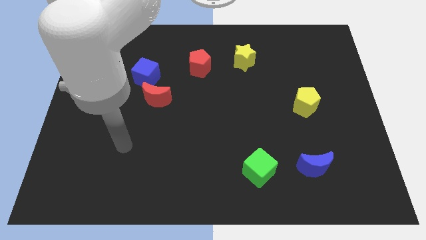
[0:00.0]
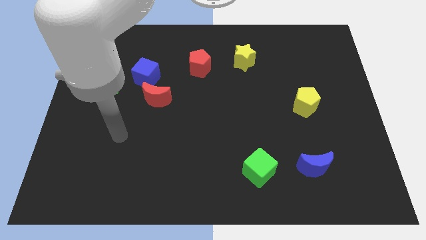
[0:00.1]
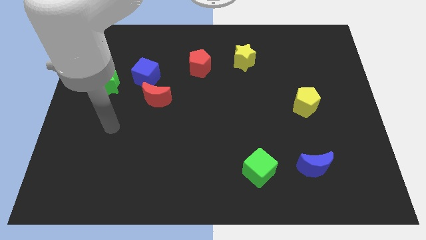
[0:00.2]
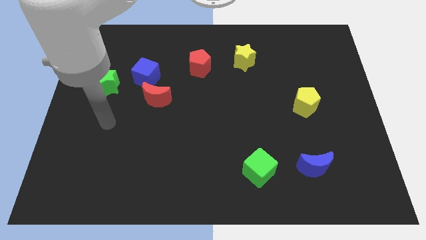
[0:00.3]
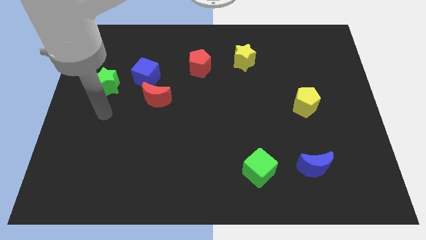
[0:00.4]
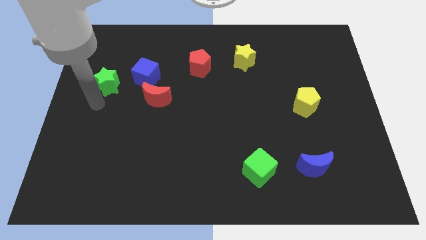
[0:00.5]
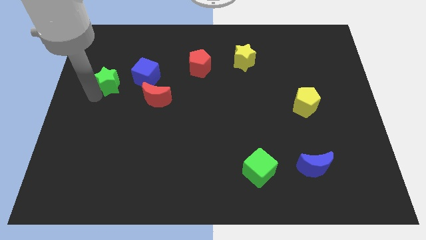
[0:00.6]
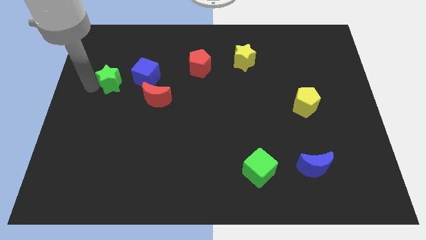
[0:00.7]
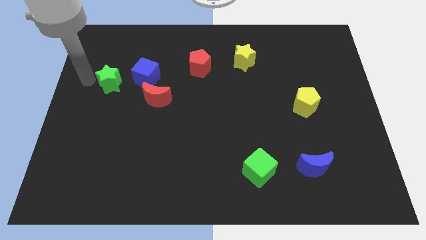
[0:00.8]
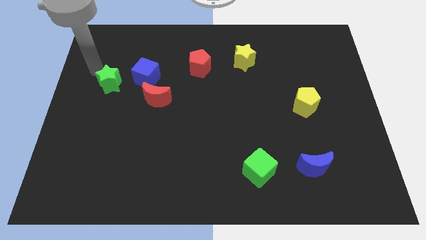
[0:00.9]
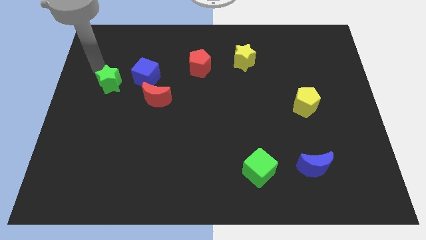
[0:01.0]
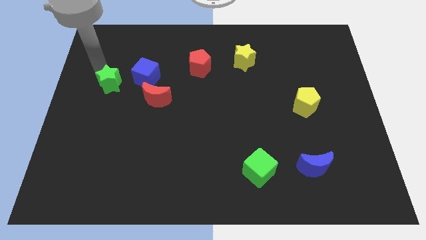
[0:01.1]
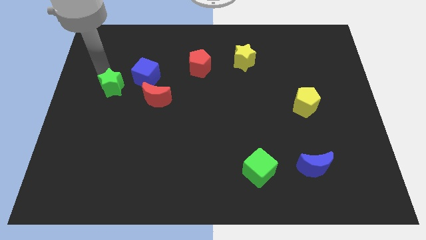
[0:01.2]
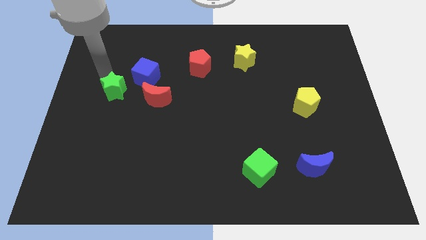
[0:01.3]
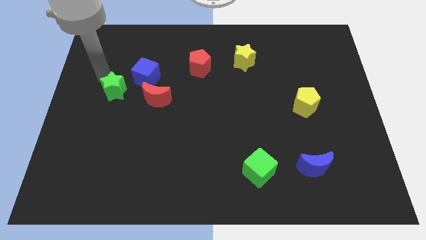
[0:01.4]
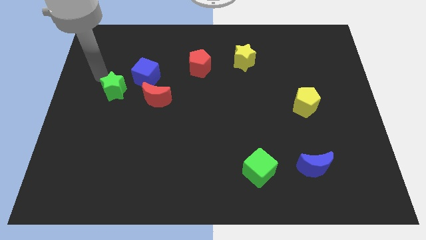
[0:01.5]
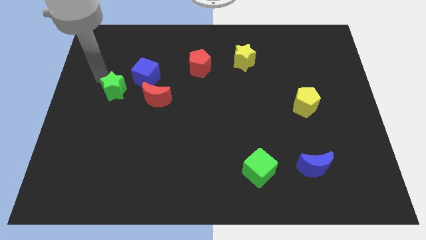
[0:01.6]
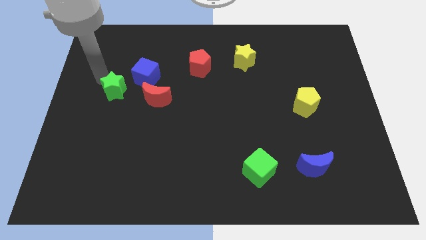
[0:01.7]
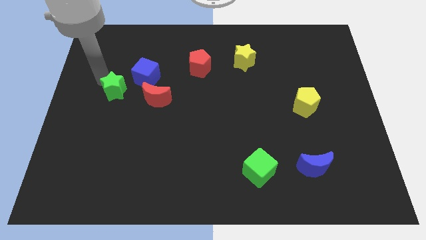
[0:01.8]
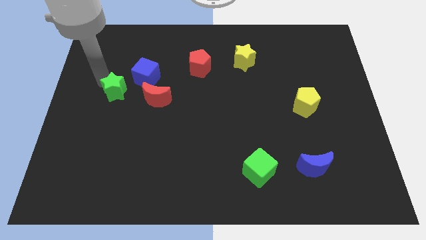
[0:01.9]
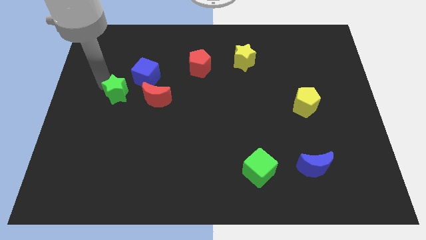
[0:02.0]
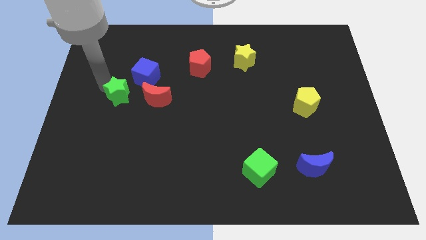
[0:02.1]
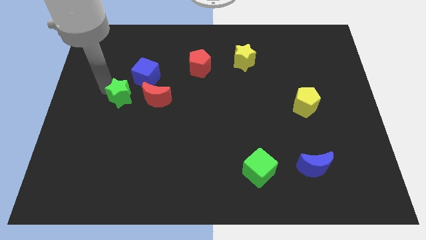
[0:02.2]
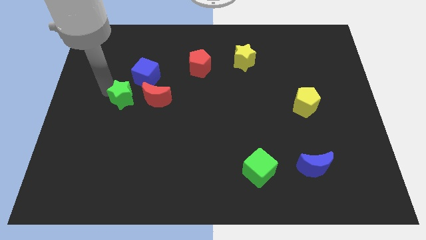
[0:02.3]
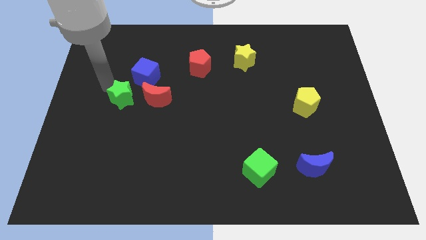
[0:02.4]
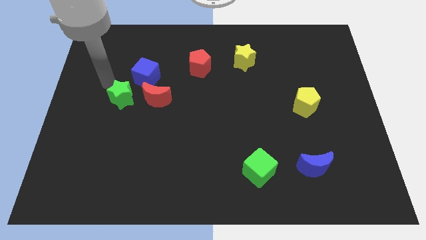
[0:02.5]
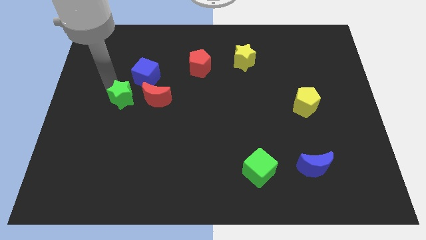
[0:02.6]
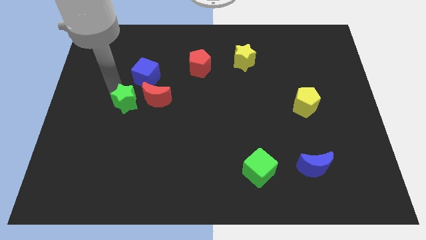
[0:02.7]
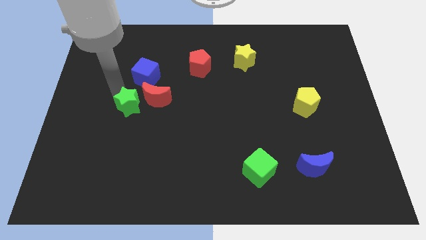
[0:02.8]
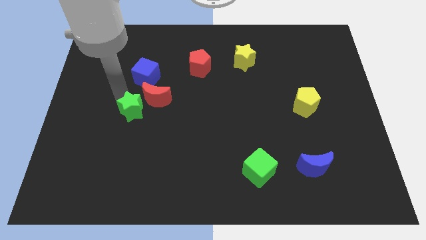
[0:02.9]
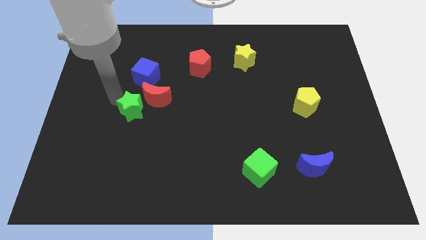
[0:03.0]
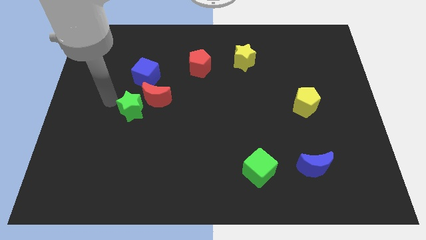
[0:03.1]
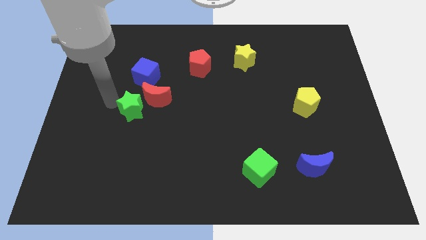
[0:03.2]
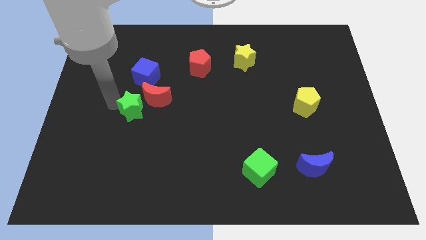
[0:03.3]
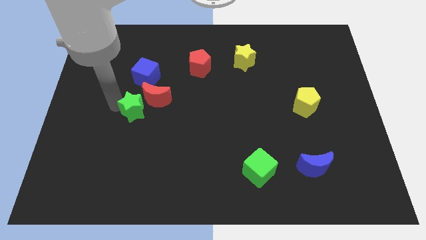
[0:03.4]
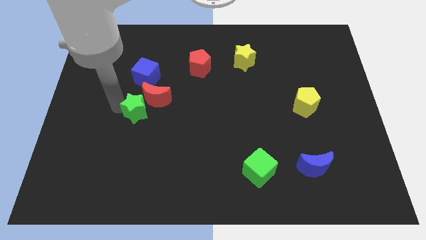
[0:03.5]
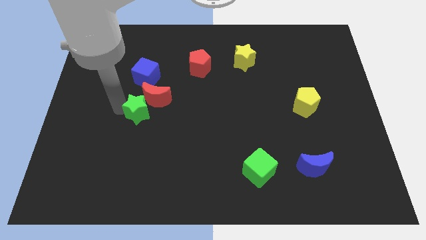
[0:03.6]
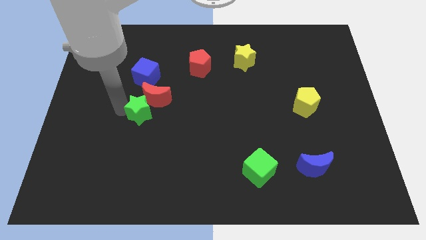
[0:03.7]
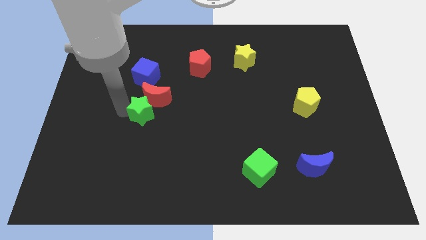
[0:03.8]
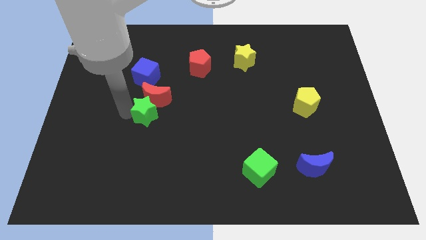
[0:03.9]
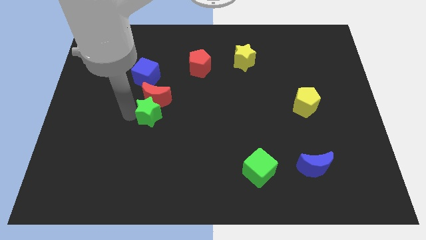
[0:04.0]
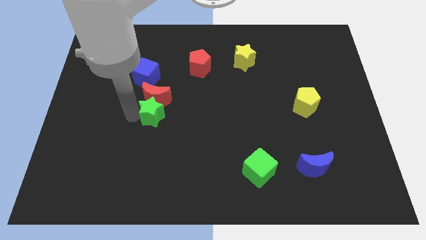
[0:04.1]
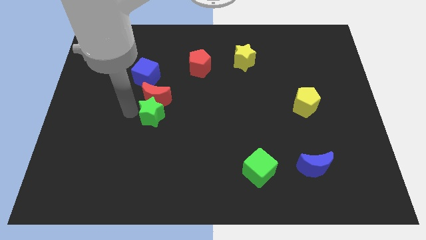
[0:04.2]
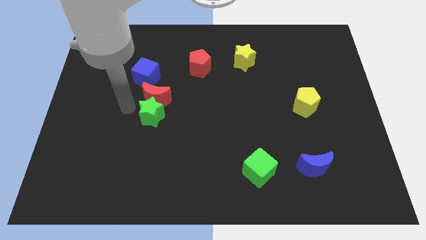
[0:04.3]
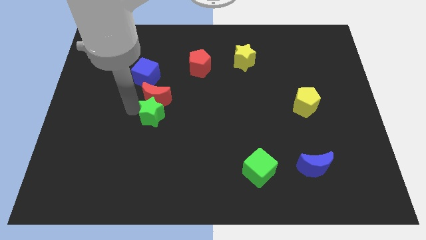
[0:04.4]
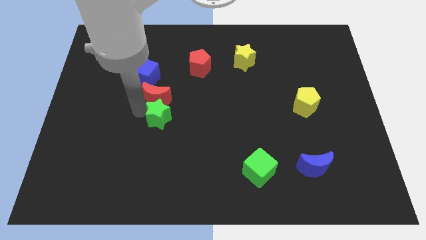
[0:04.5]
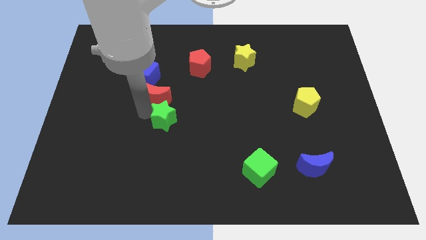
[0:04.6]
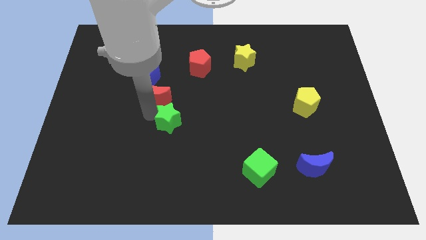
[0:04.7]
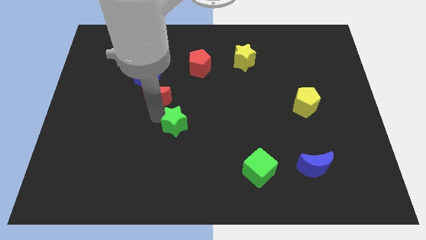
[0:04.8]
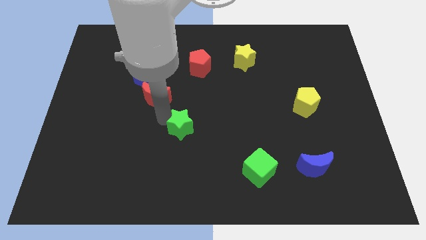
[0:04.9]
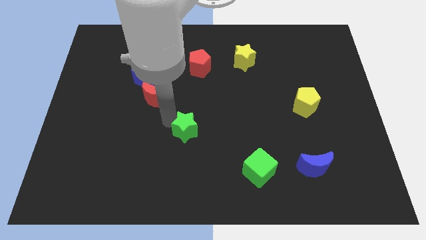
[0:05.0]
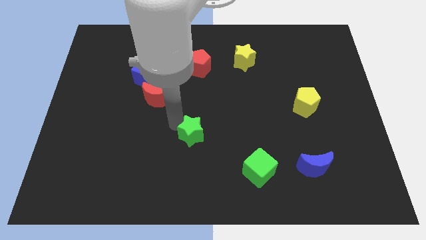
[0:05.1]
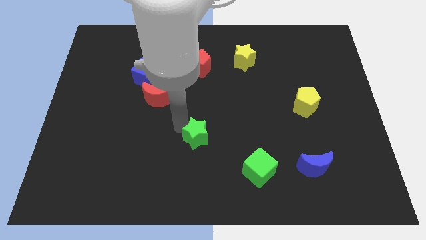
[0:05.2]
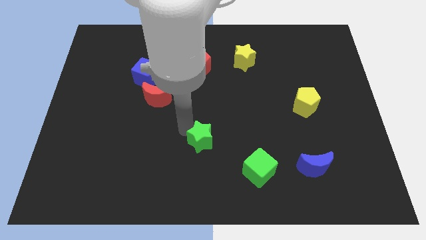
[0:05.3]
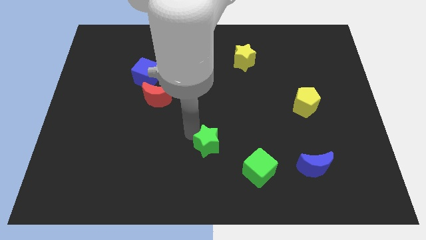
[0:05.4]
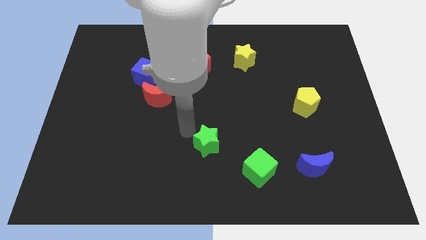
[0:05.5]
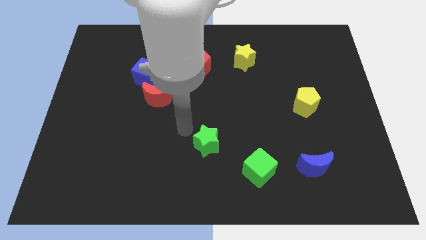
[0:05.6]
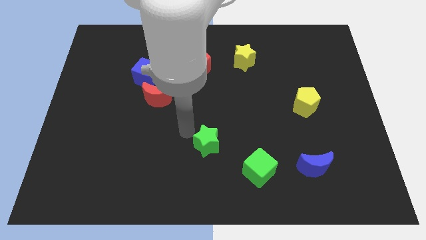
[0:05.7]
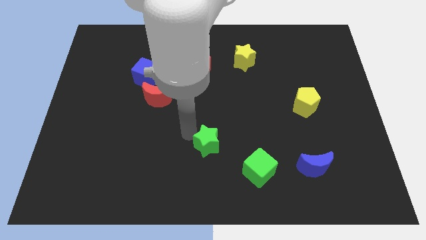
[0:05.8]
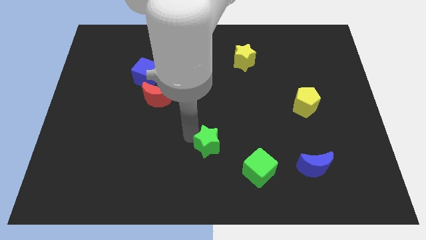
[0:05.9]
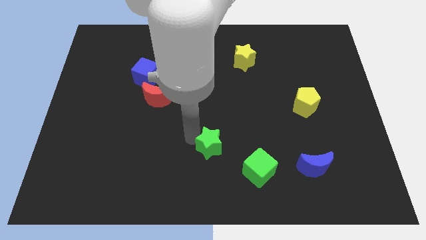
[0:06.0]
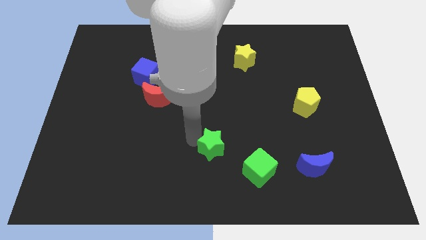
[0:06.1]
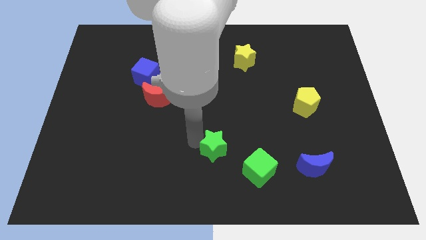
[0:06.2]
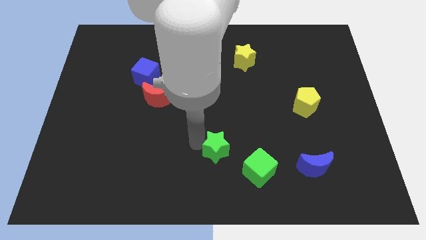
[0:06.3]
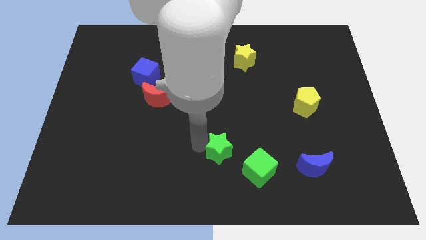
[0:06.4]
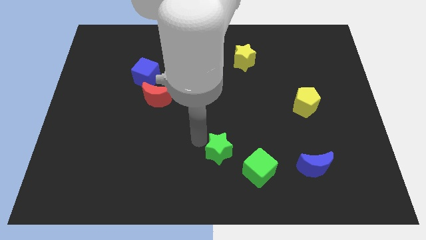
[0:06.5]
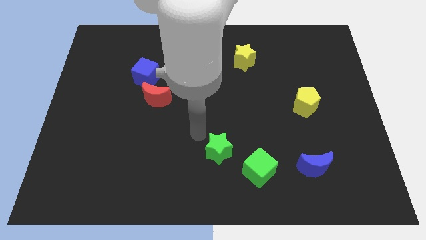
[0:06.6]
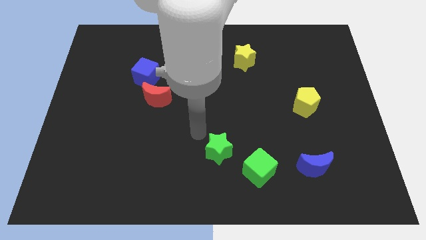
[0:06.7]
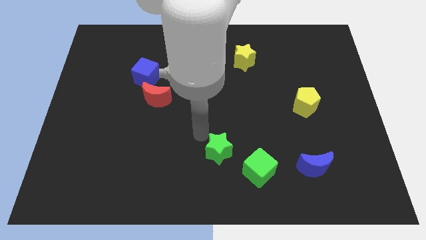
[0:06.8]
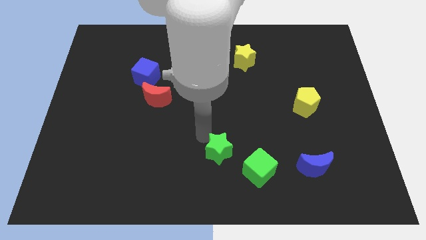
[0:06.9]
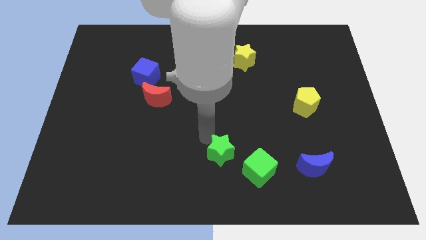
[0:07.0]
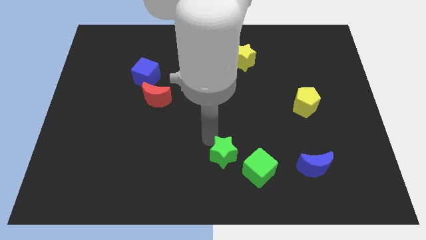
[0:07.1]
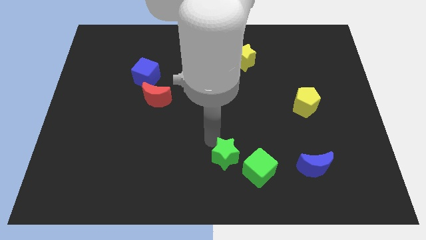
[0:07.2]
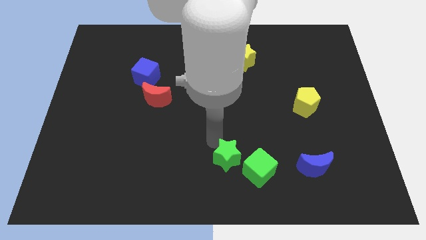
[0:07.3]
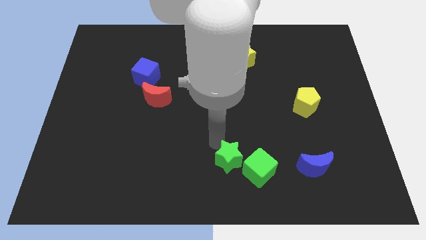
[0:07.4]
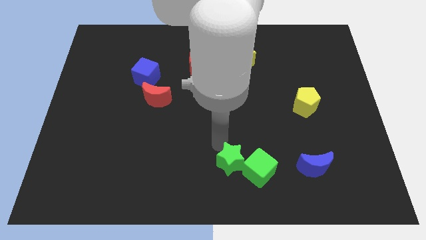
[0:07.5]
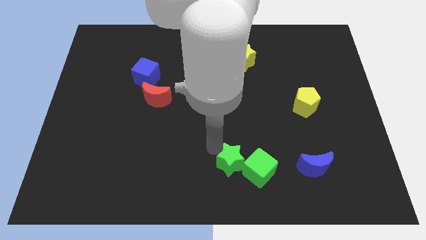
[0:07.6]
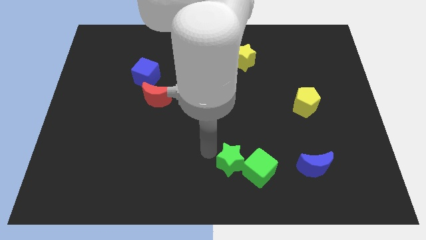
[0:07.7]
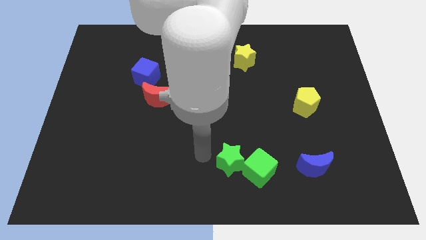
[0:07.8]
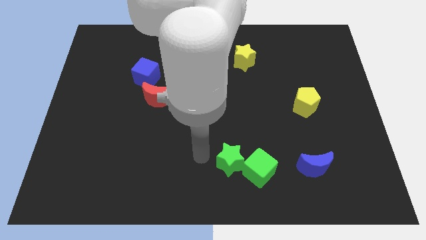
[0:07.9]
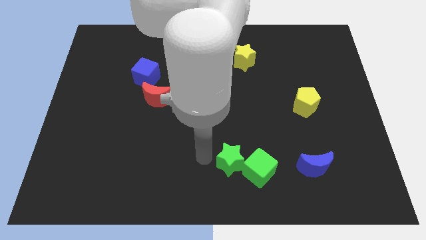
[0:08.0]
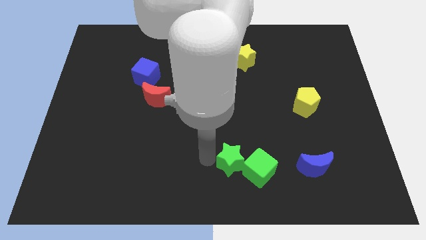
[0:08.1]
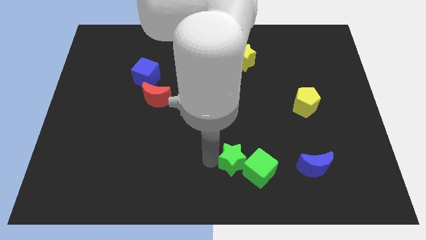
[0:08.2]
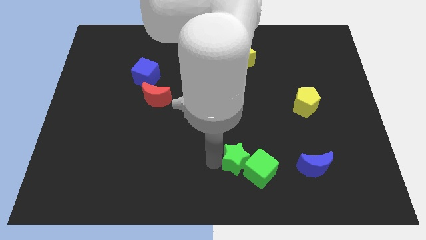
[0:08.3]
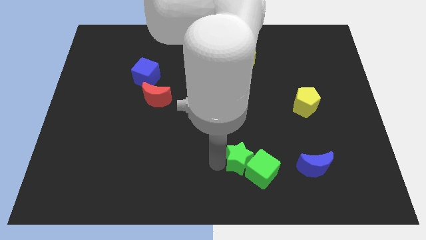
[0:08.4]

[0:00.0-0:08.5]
push the green star left of the blue moon
